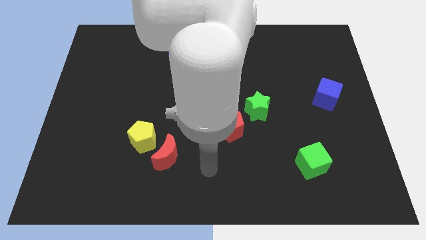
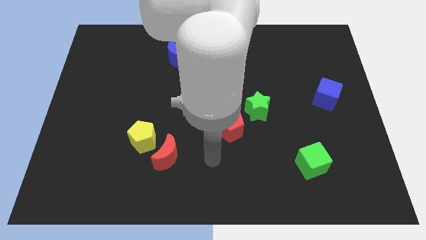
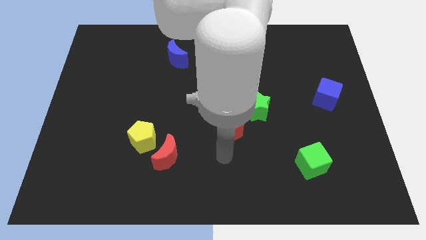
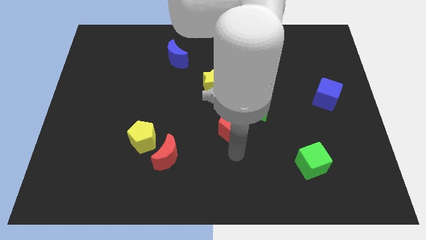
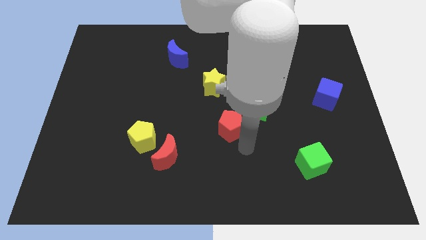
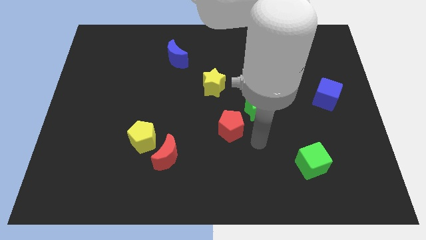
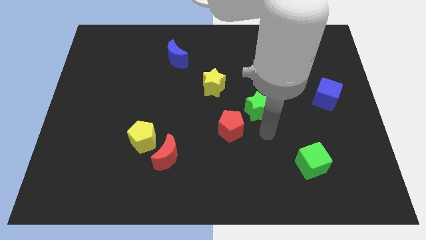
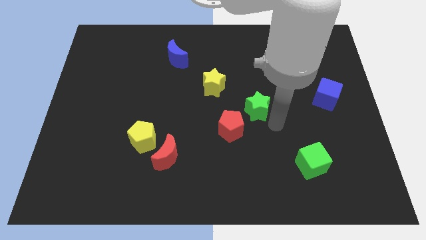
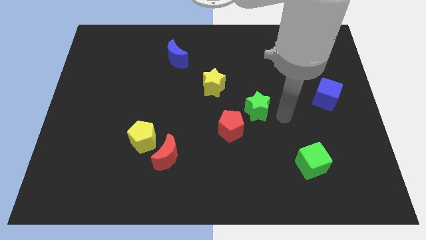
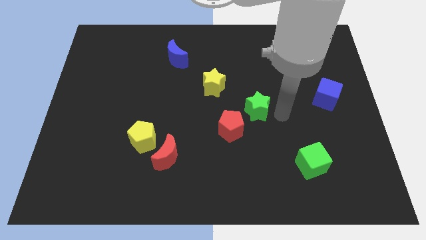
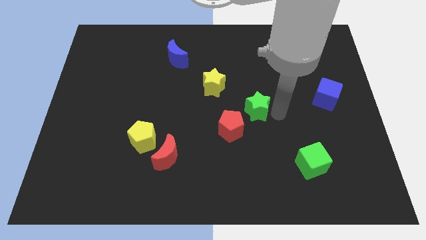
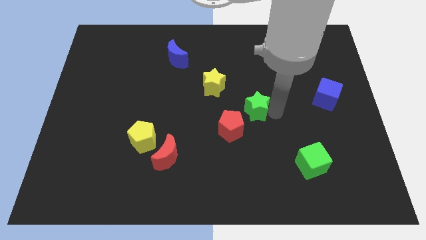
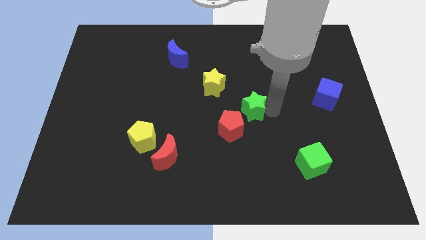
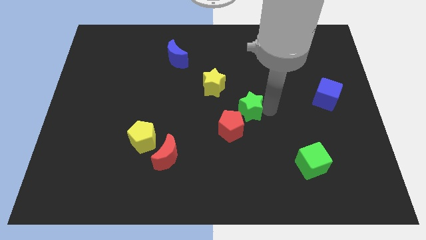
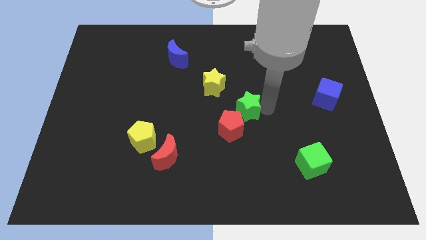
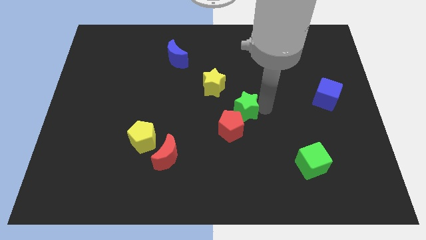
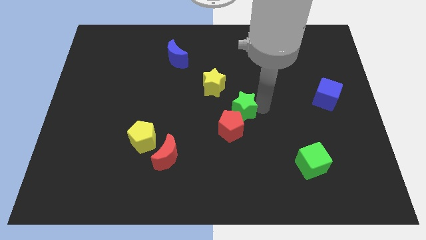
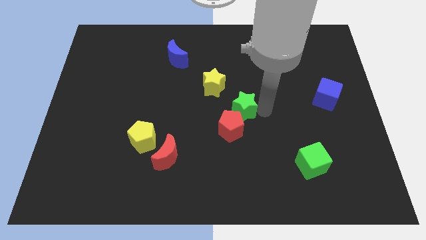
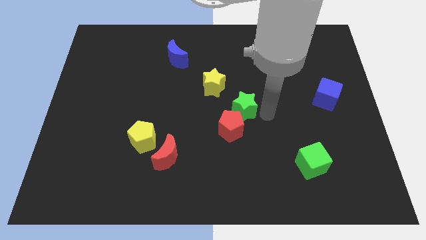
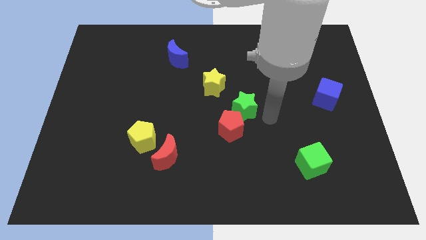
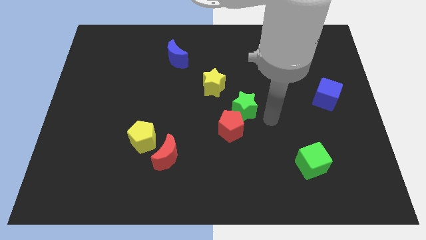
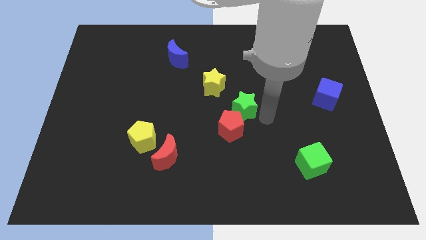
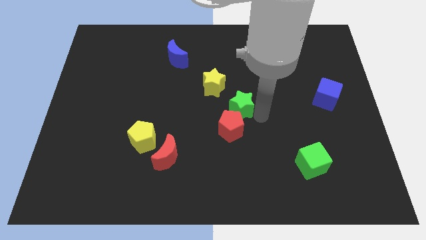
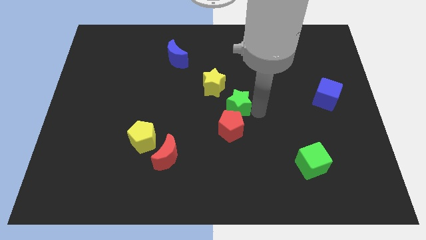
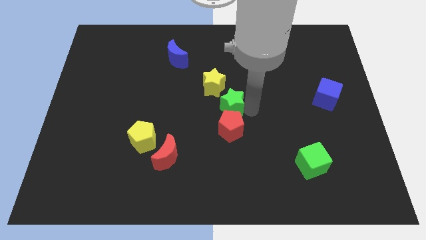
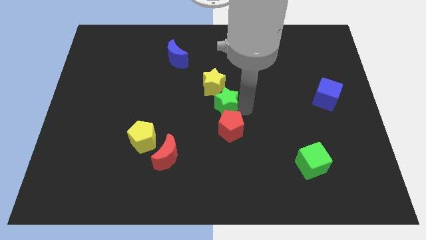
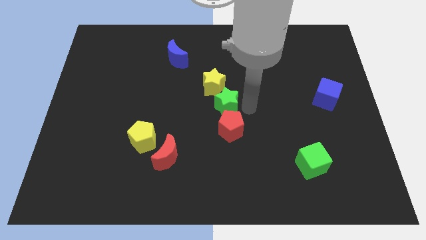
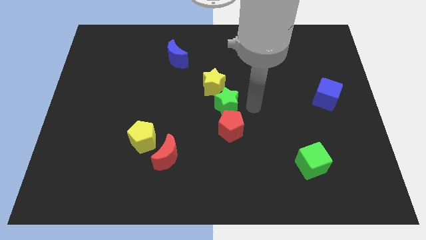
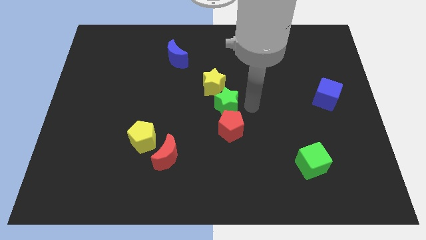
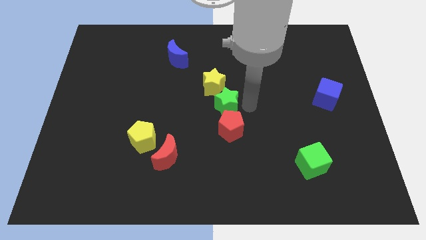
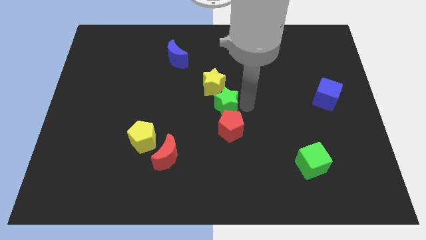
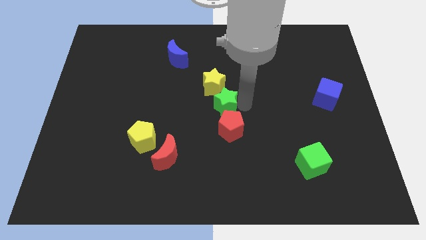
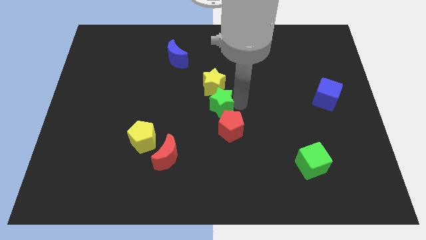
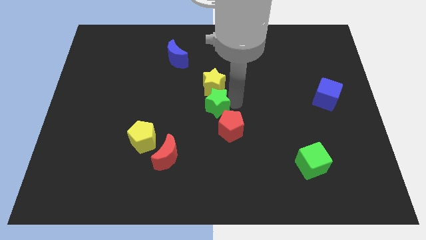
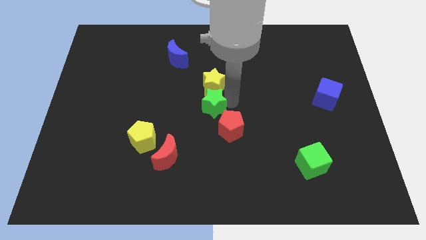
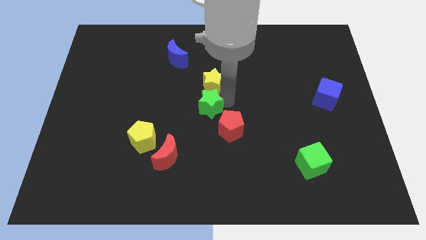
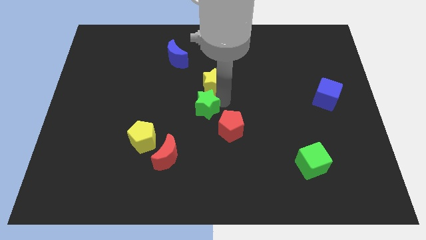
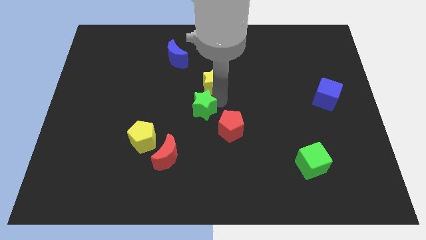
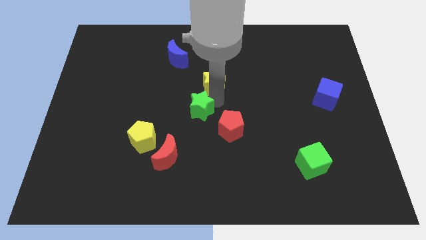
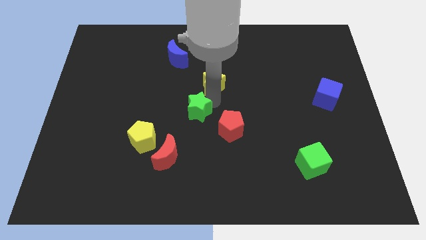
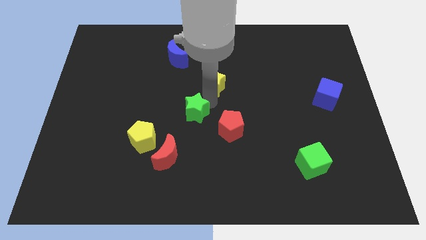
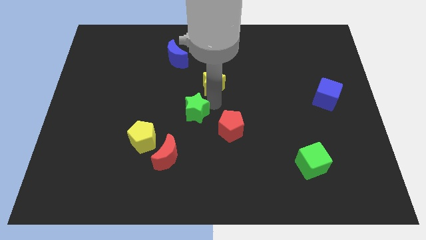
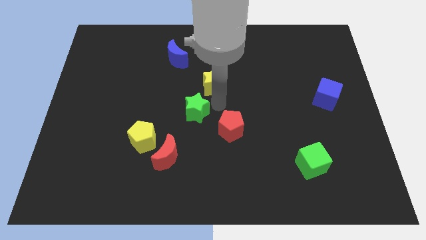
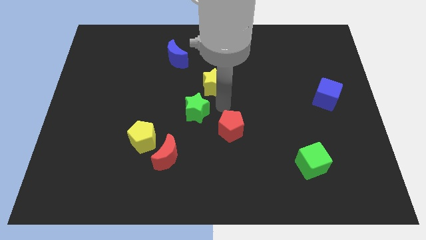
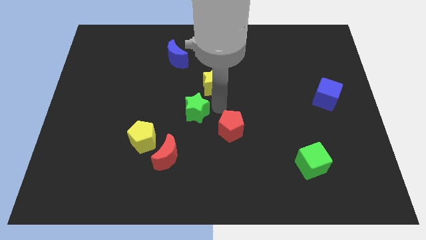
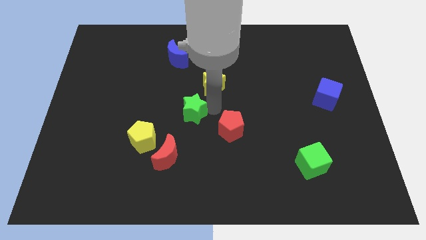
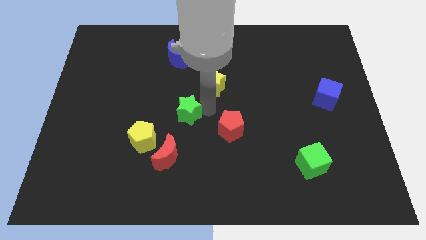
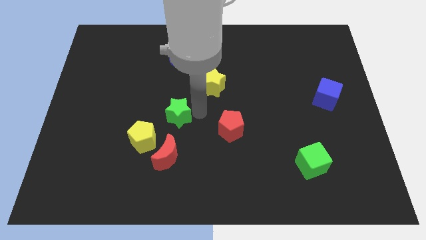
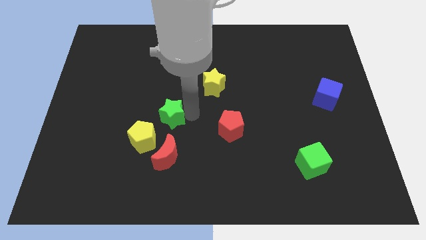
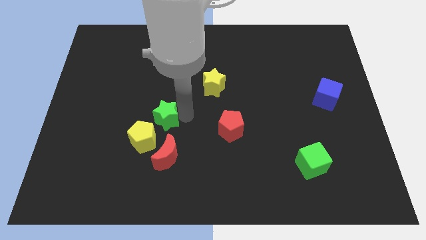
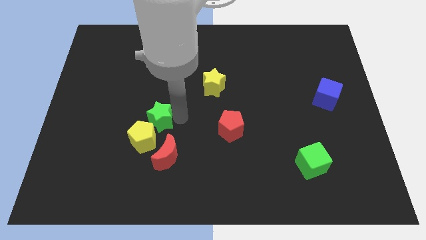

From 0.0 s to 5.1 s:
move the green star to the top left of the red moon

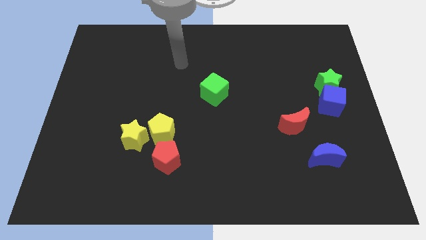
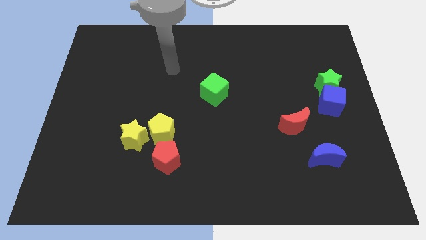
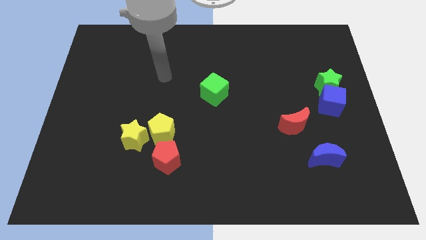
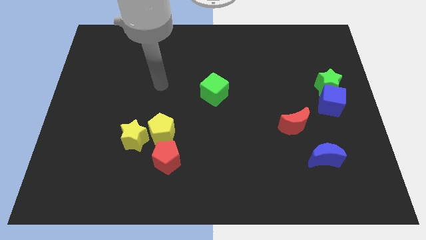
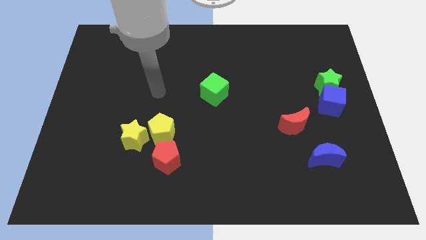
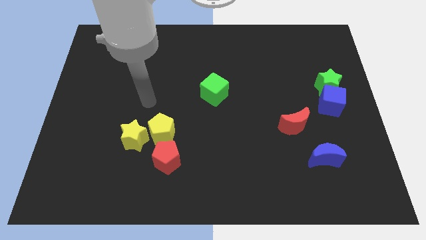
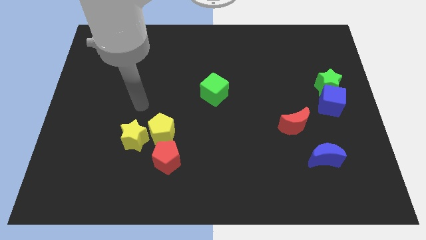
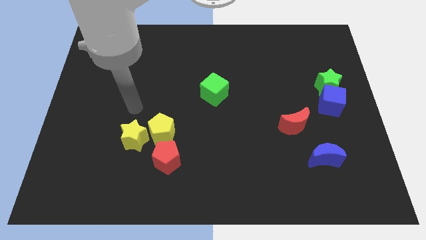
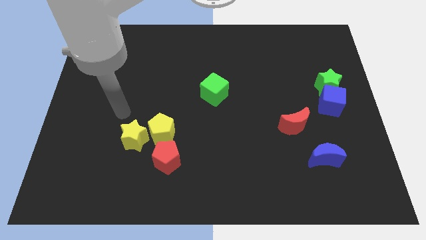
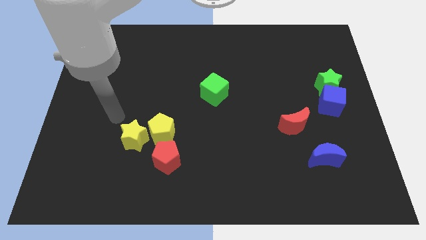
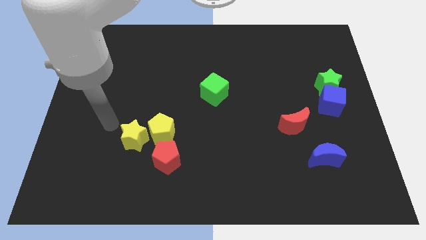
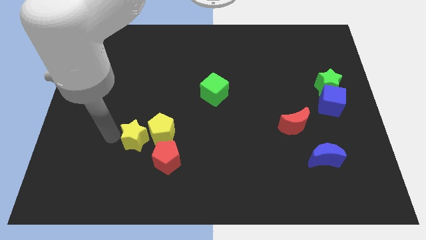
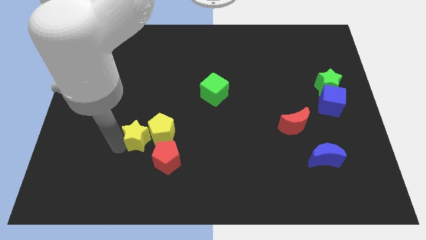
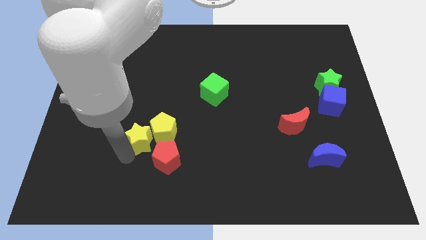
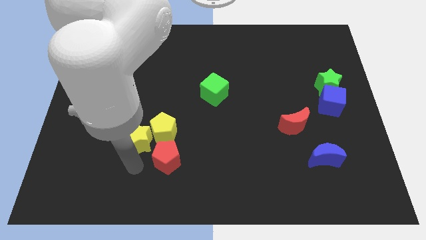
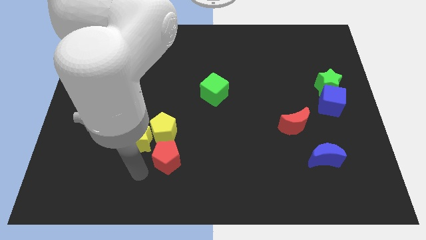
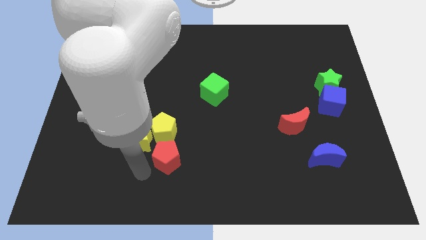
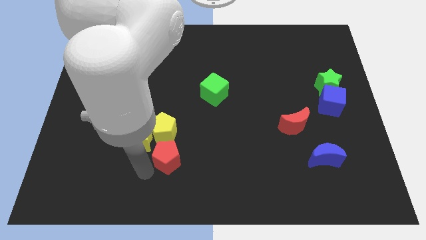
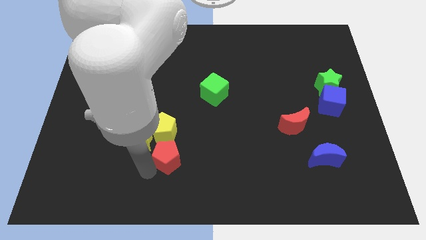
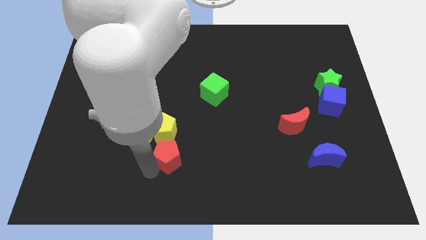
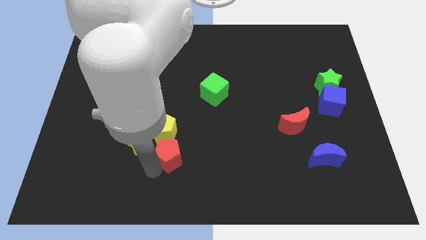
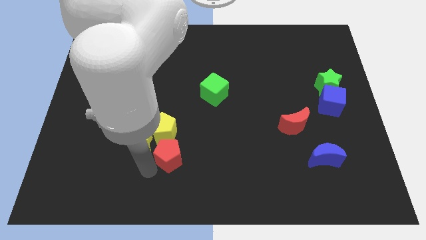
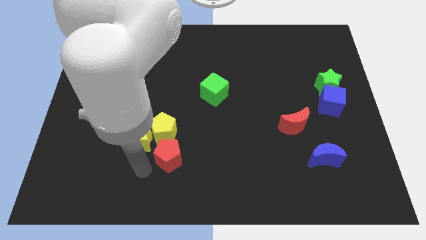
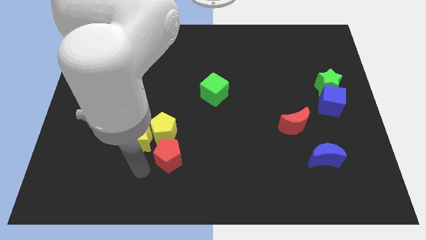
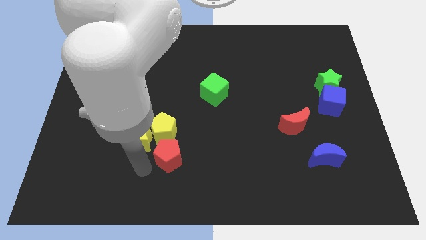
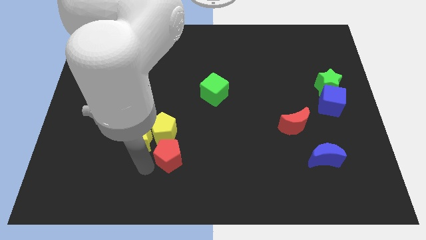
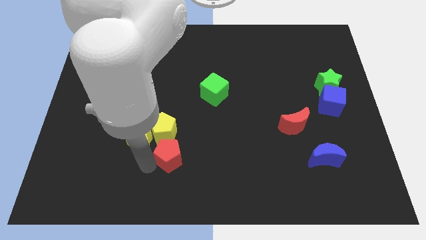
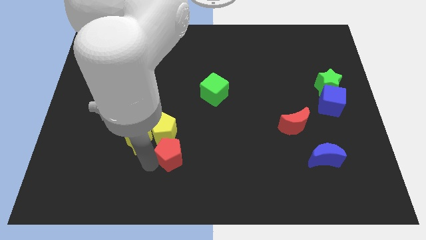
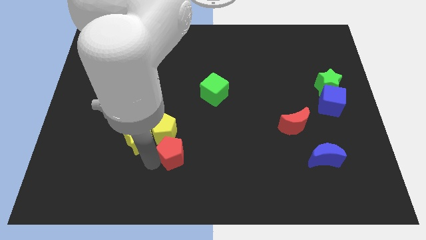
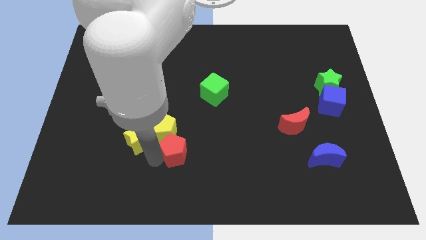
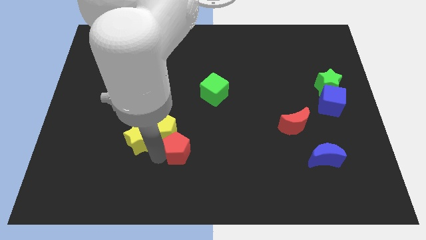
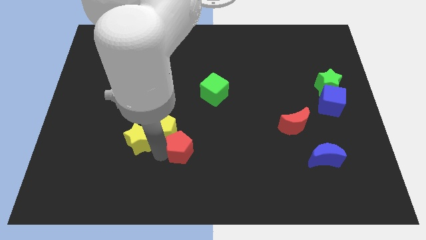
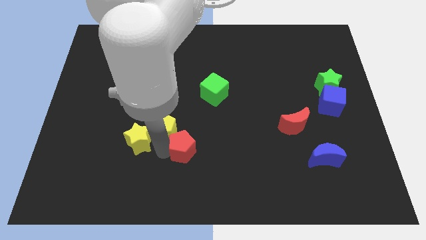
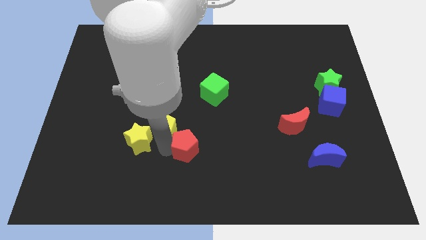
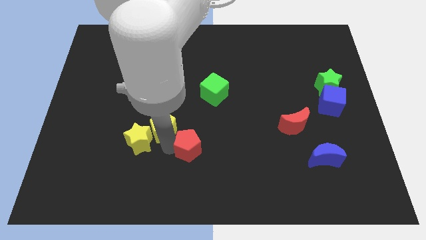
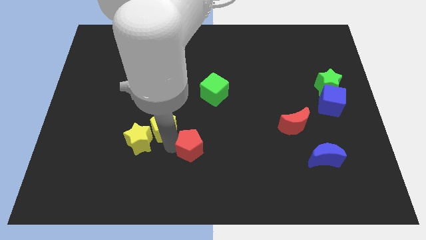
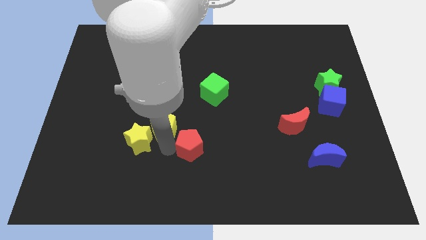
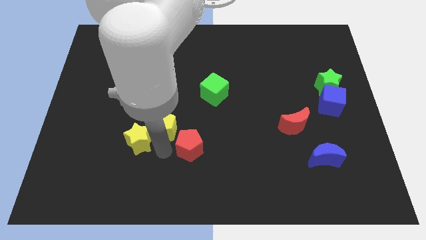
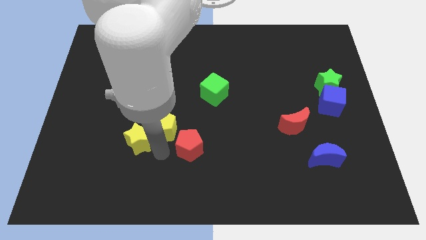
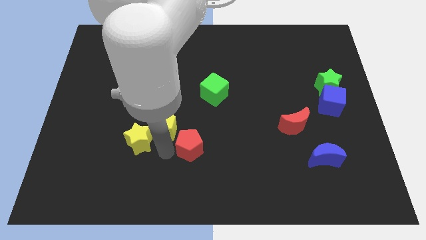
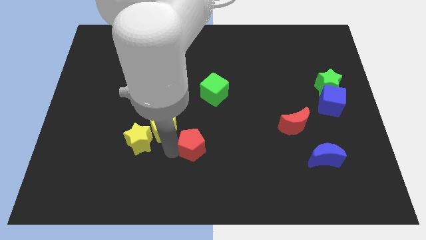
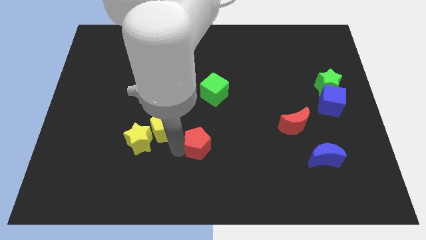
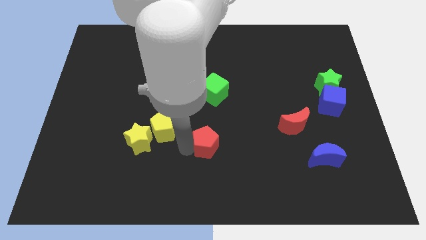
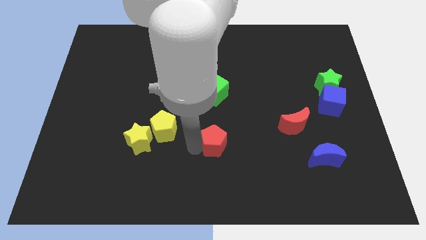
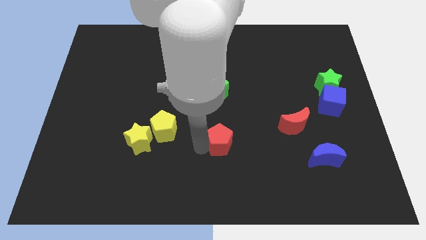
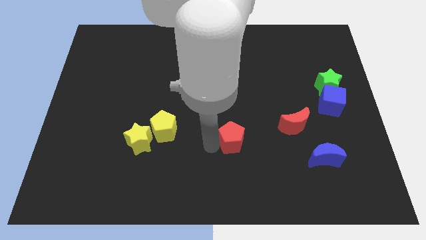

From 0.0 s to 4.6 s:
put the red pentagon left of the red moon
